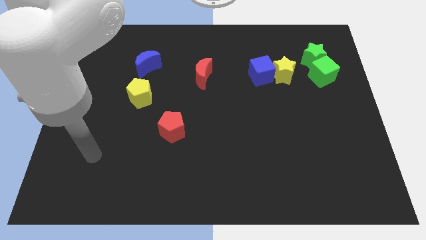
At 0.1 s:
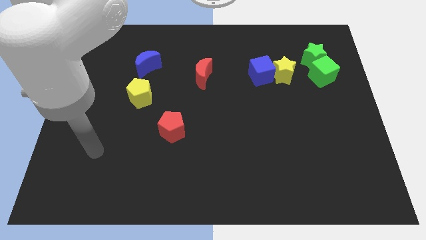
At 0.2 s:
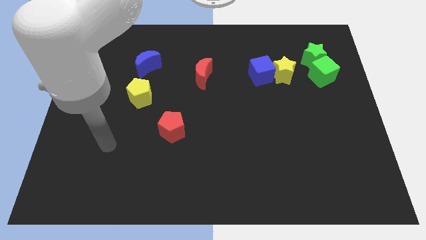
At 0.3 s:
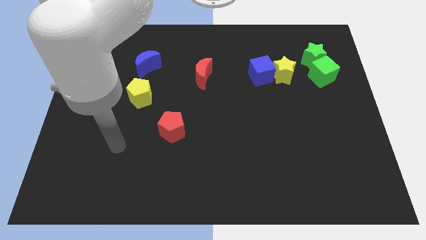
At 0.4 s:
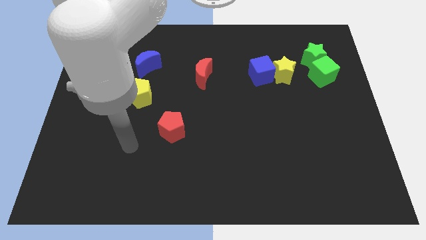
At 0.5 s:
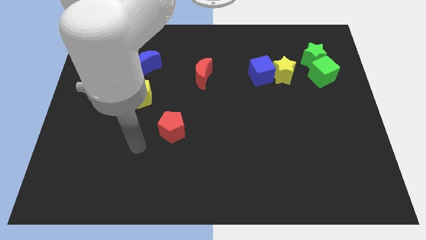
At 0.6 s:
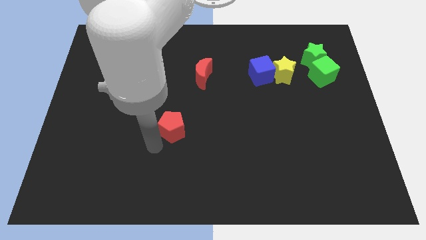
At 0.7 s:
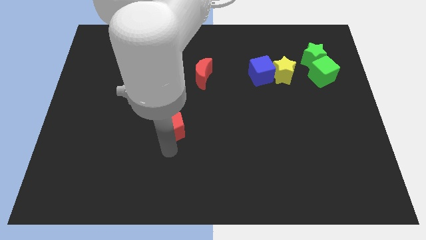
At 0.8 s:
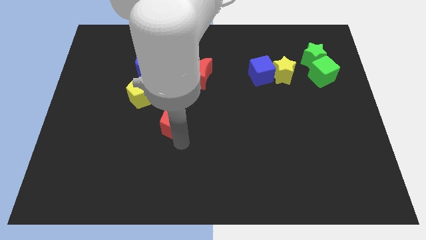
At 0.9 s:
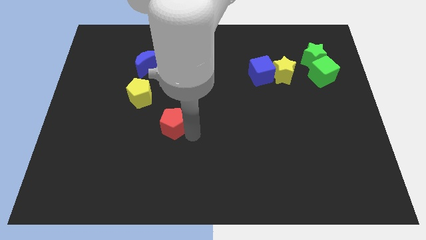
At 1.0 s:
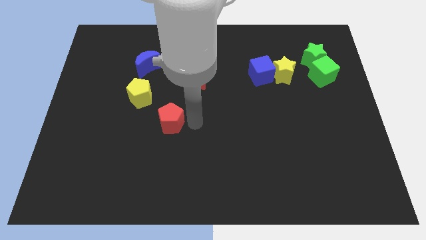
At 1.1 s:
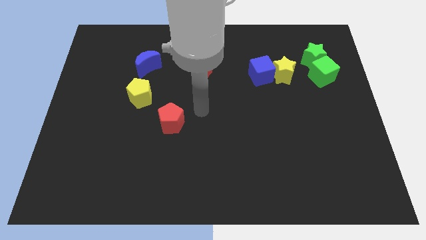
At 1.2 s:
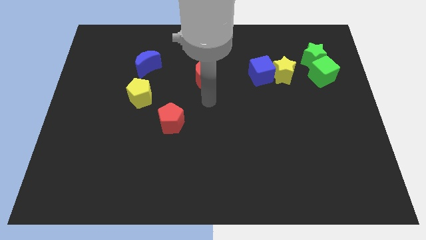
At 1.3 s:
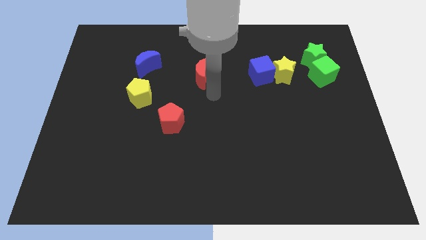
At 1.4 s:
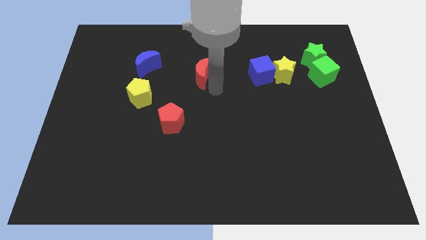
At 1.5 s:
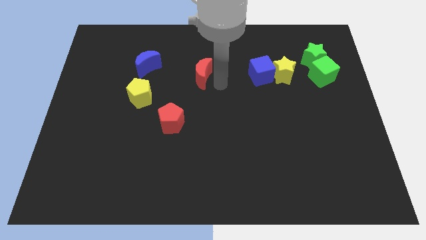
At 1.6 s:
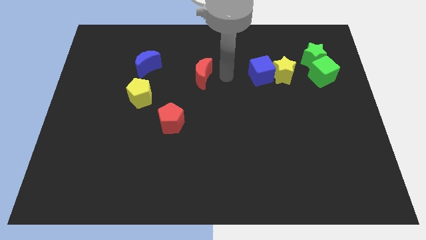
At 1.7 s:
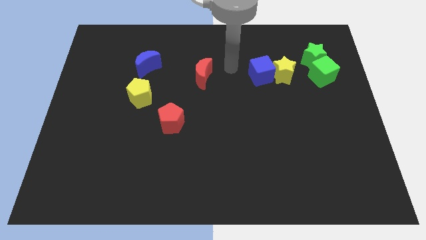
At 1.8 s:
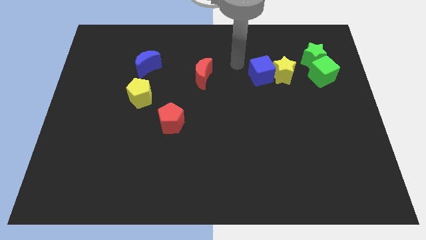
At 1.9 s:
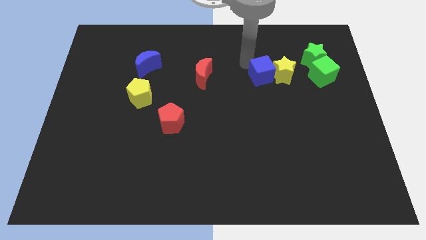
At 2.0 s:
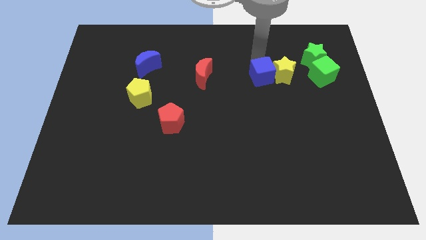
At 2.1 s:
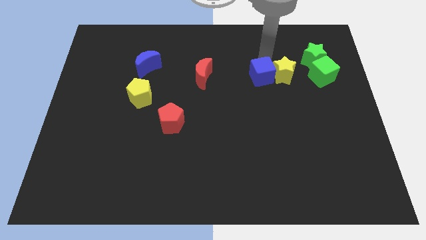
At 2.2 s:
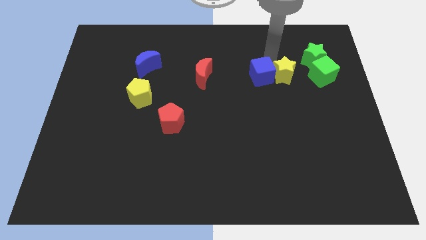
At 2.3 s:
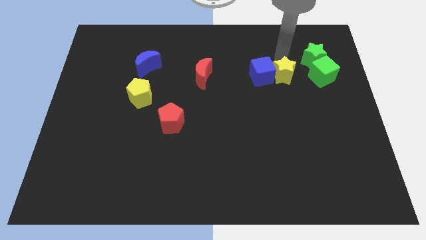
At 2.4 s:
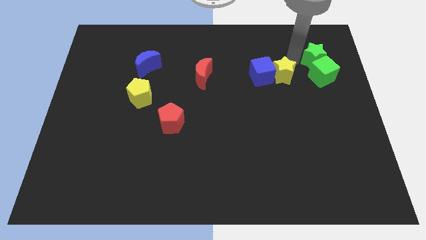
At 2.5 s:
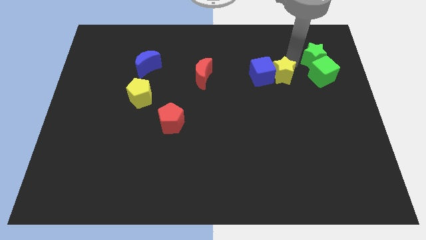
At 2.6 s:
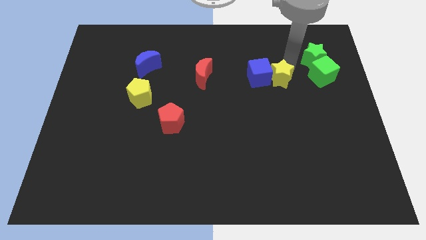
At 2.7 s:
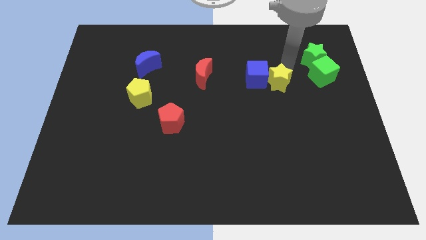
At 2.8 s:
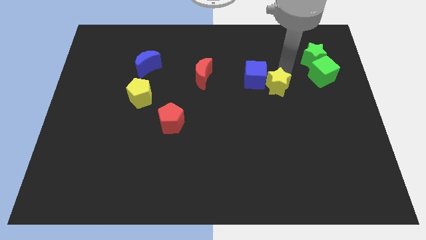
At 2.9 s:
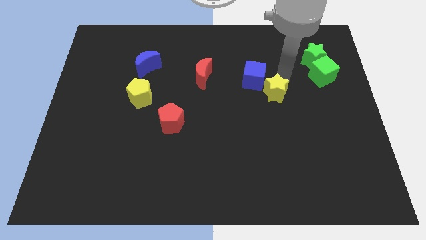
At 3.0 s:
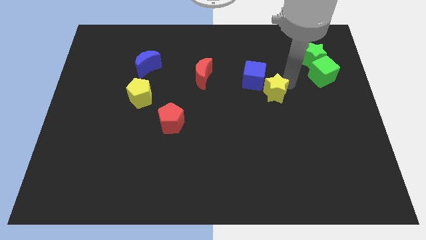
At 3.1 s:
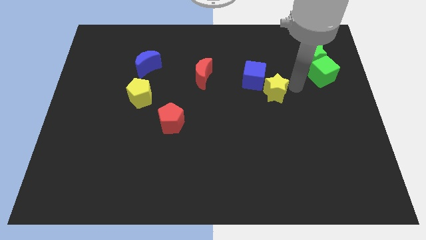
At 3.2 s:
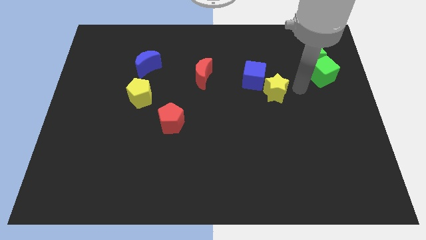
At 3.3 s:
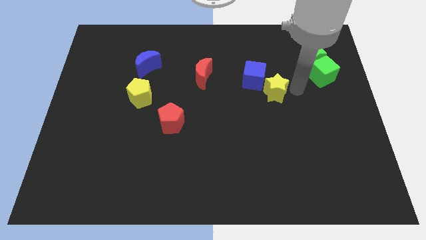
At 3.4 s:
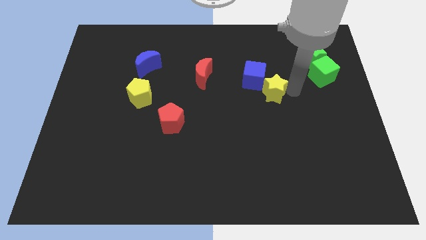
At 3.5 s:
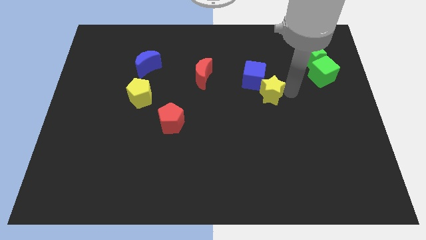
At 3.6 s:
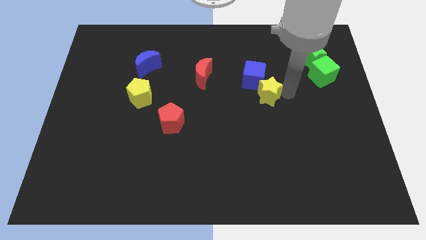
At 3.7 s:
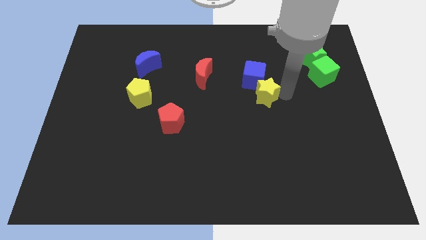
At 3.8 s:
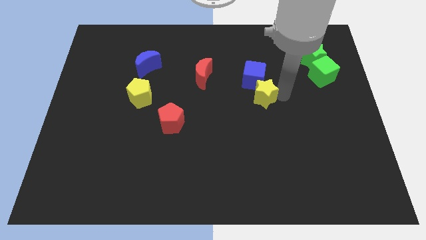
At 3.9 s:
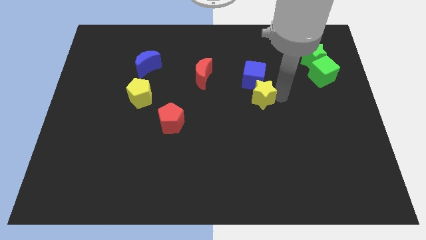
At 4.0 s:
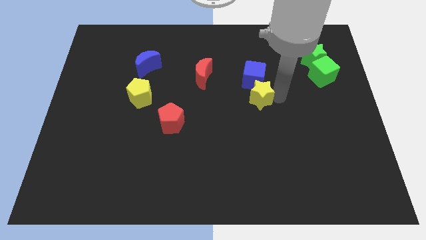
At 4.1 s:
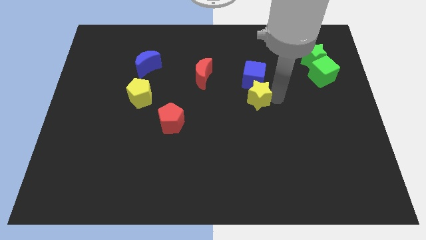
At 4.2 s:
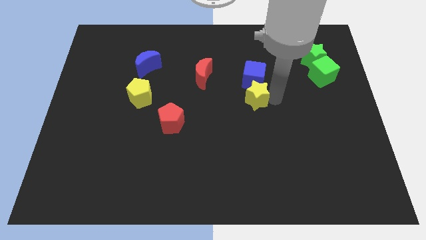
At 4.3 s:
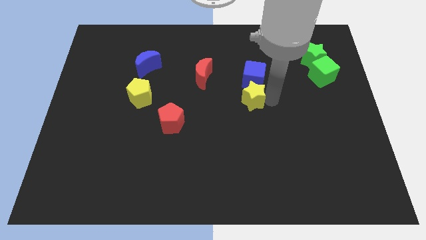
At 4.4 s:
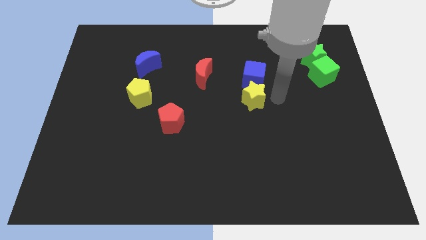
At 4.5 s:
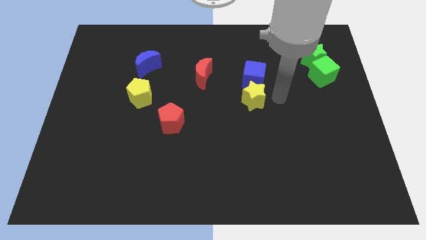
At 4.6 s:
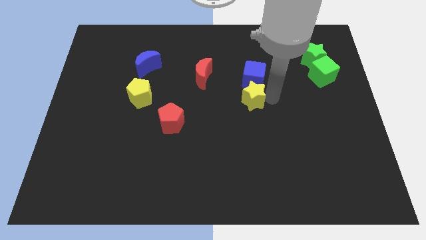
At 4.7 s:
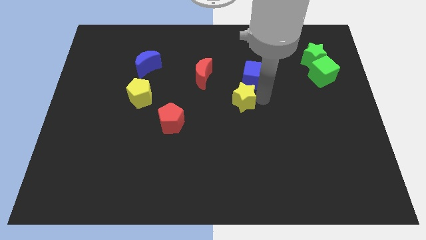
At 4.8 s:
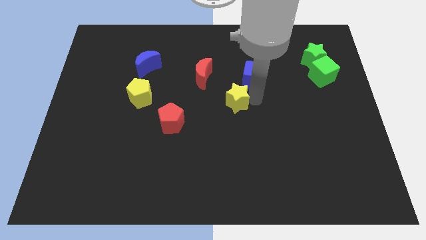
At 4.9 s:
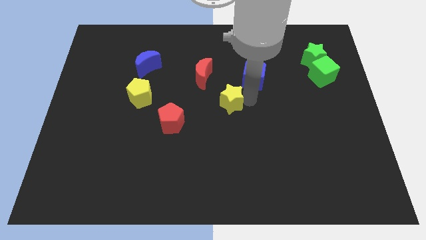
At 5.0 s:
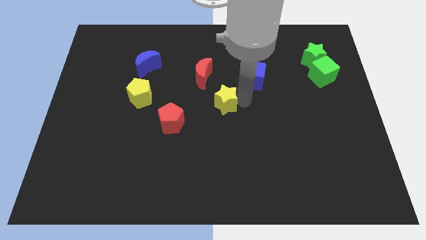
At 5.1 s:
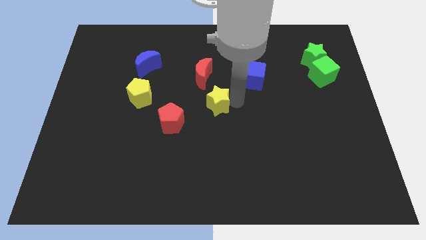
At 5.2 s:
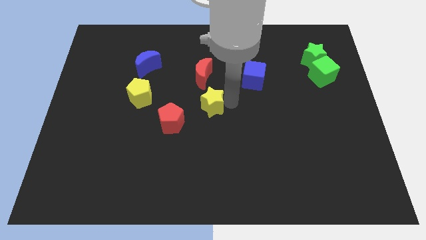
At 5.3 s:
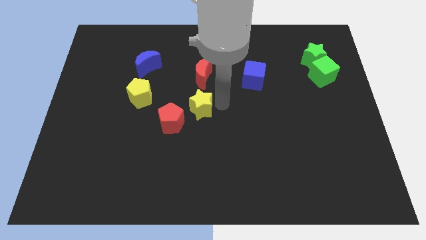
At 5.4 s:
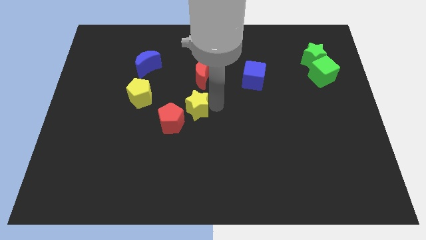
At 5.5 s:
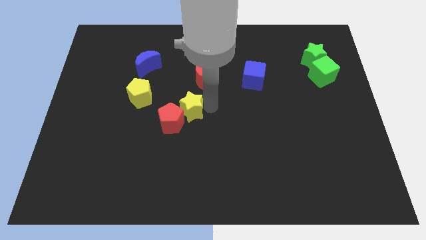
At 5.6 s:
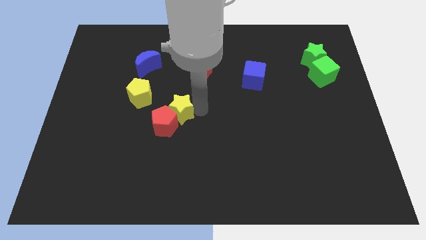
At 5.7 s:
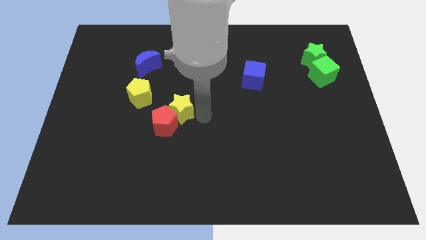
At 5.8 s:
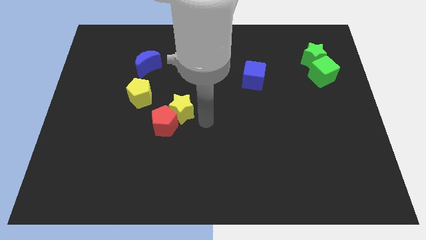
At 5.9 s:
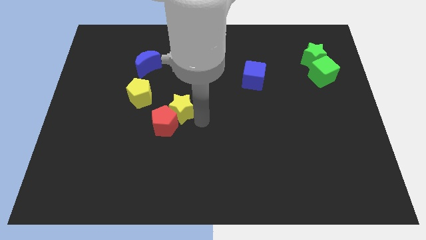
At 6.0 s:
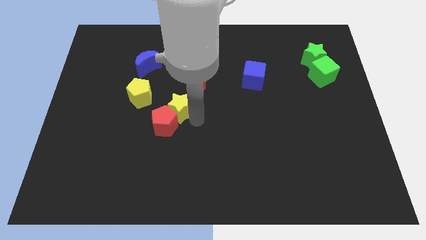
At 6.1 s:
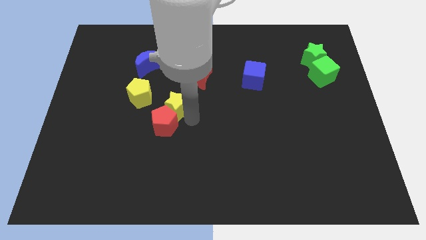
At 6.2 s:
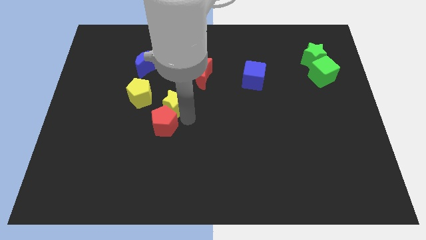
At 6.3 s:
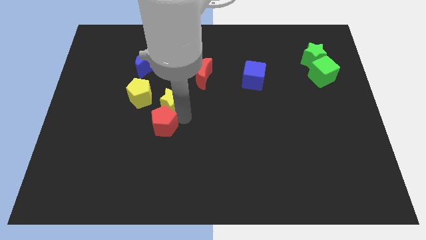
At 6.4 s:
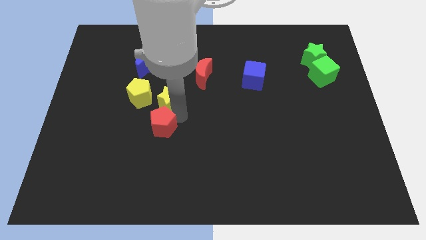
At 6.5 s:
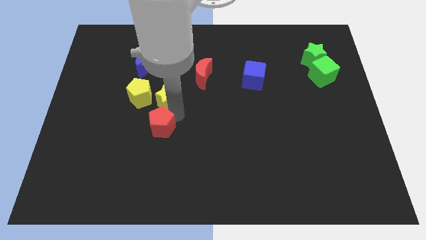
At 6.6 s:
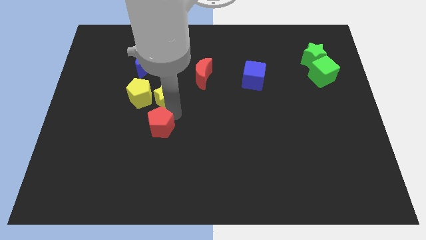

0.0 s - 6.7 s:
slide the yellow star close to the yellow pentagon

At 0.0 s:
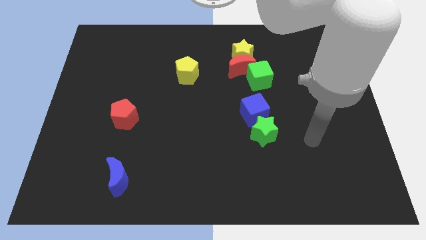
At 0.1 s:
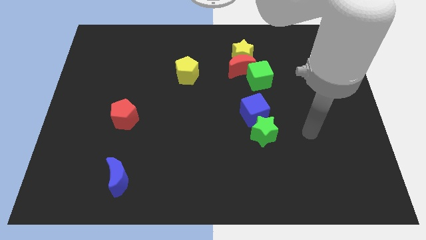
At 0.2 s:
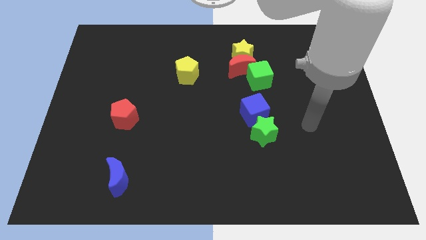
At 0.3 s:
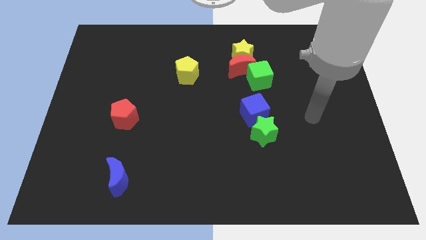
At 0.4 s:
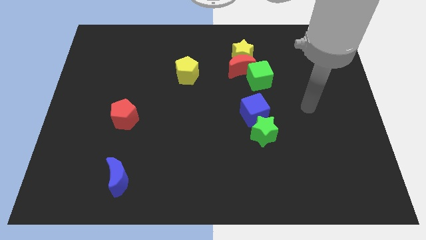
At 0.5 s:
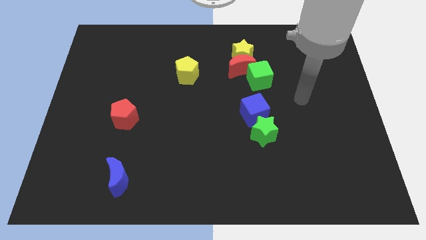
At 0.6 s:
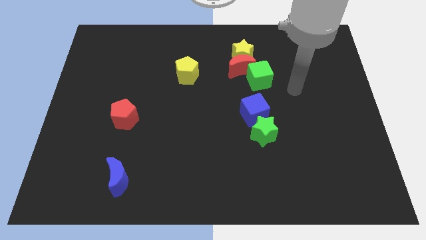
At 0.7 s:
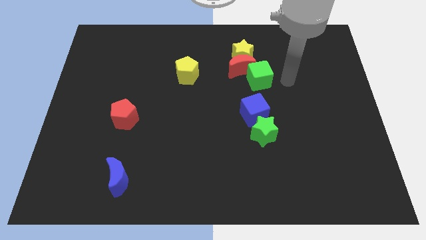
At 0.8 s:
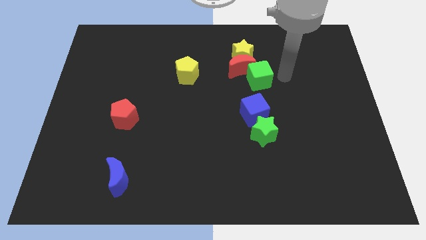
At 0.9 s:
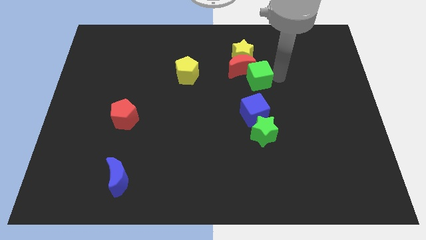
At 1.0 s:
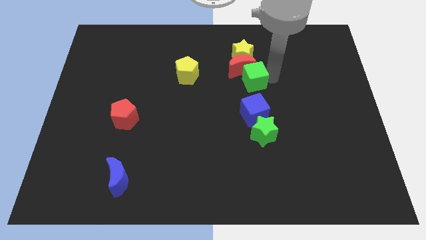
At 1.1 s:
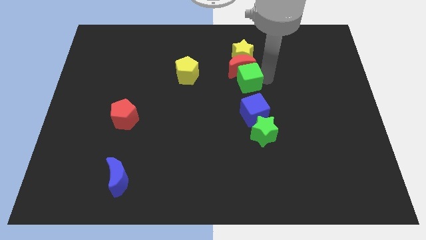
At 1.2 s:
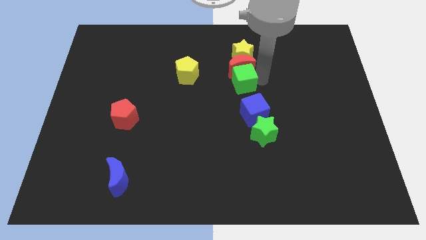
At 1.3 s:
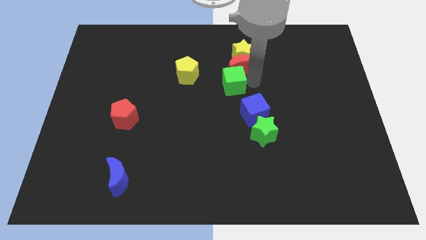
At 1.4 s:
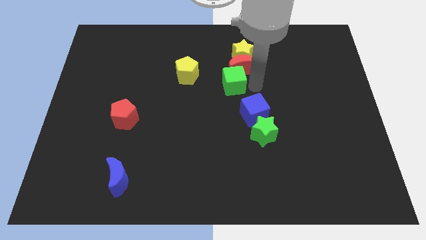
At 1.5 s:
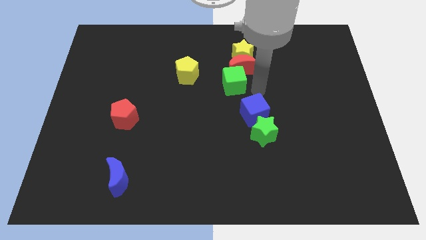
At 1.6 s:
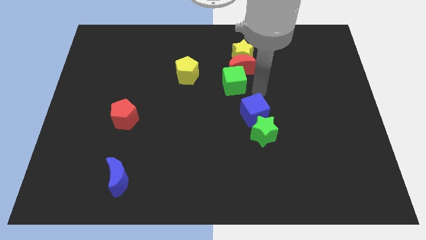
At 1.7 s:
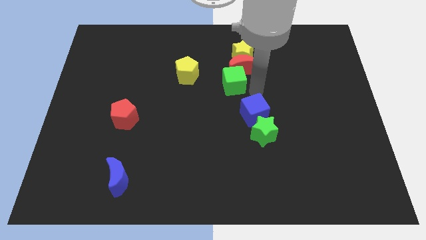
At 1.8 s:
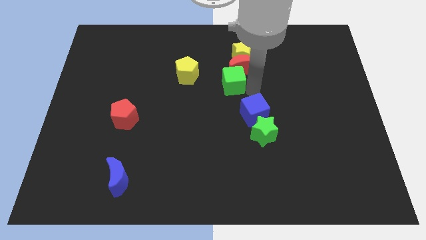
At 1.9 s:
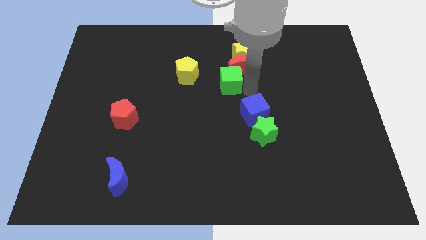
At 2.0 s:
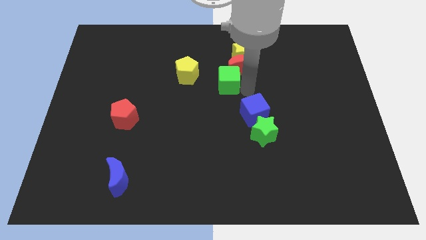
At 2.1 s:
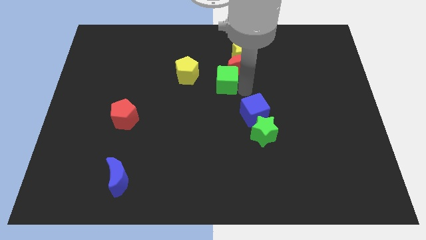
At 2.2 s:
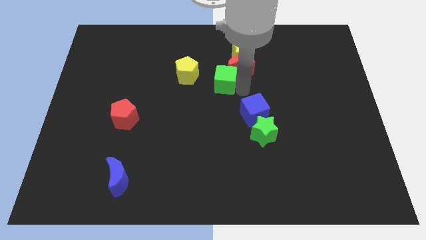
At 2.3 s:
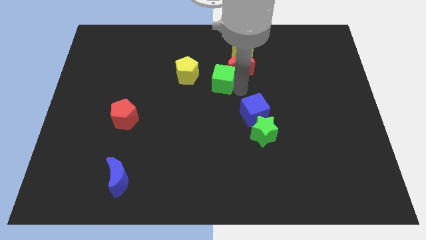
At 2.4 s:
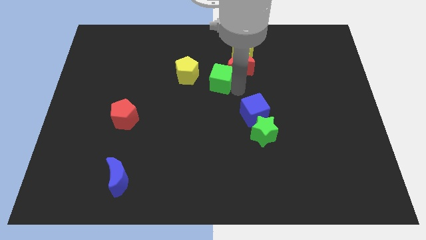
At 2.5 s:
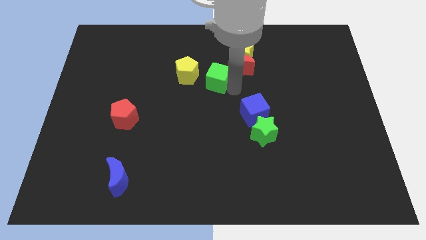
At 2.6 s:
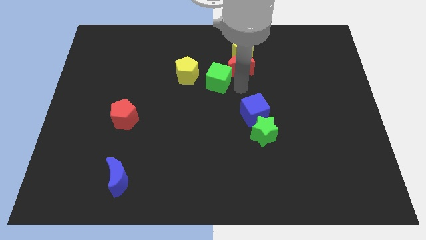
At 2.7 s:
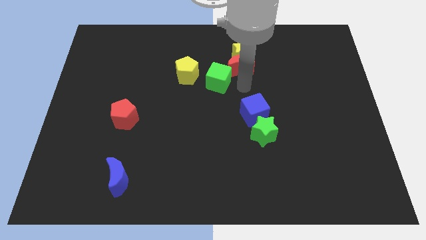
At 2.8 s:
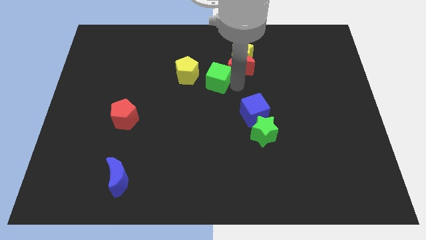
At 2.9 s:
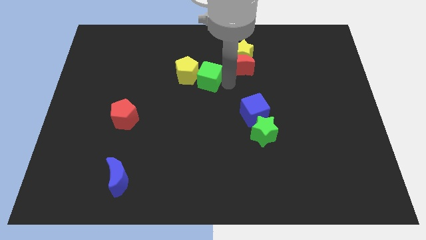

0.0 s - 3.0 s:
push the green cube next to the yellow pentagon
